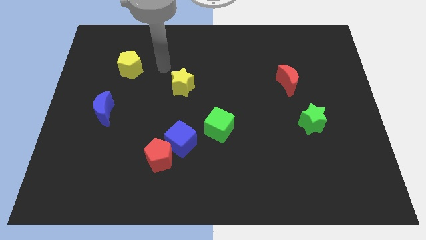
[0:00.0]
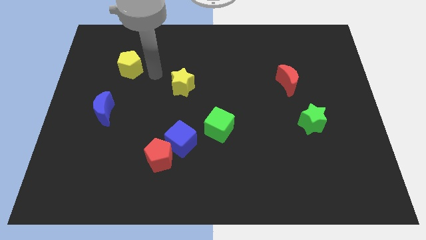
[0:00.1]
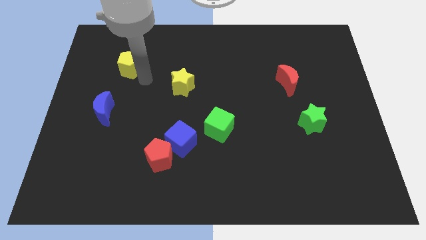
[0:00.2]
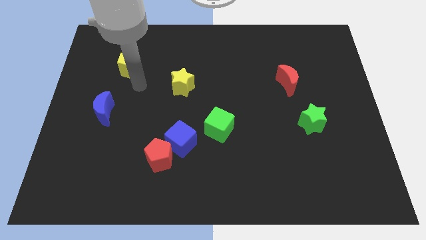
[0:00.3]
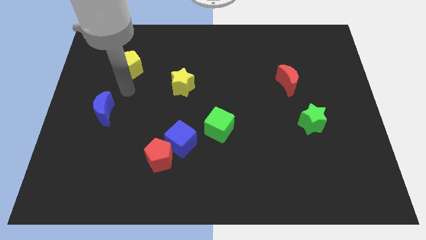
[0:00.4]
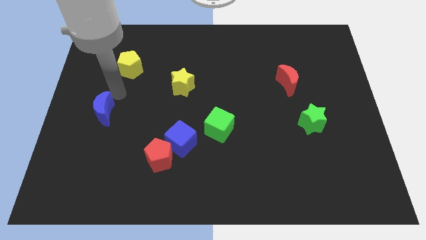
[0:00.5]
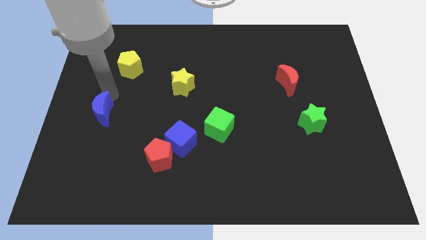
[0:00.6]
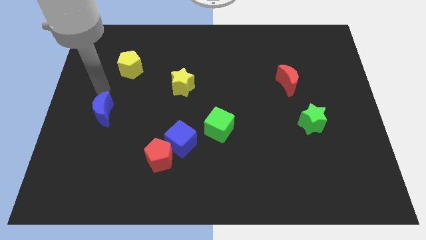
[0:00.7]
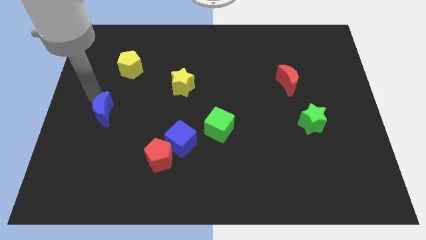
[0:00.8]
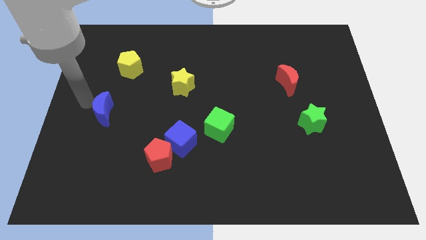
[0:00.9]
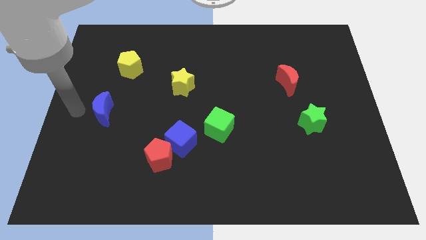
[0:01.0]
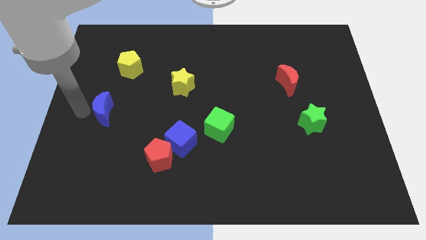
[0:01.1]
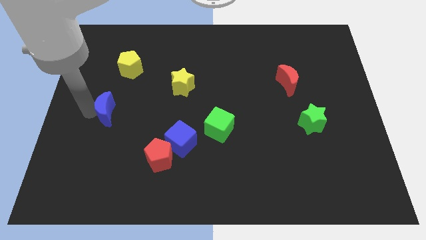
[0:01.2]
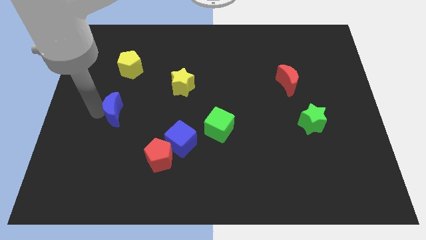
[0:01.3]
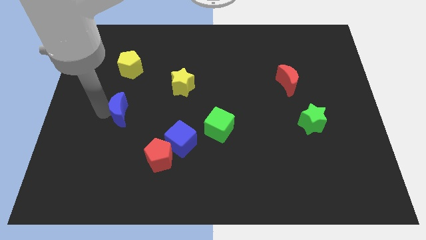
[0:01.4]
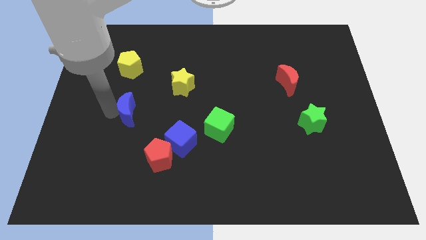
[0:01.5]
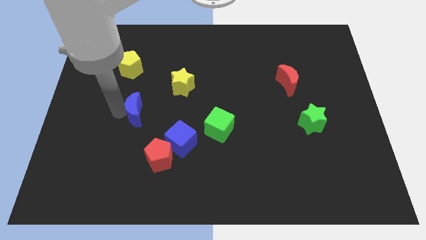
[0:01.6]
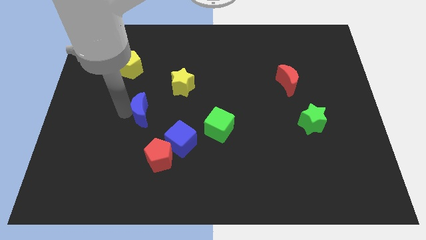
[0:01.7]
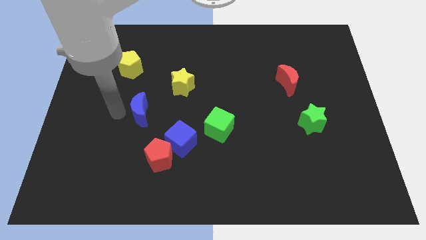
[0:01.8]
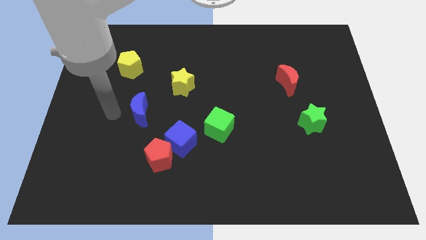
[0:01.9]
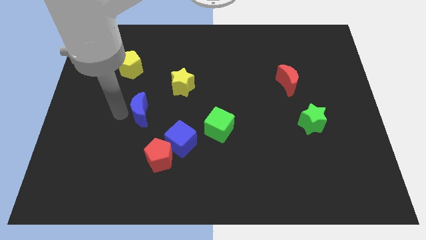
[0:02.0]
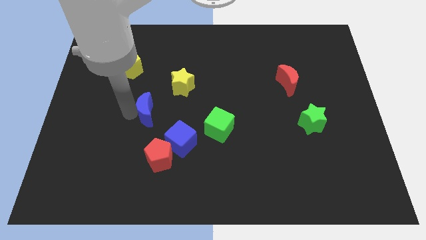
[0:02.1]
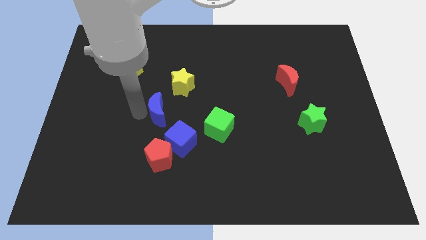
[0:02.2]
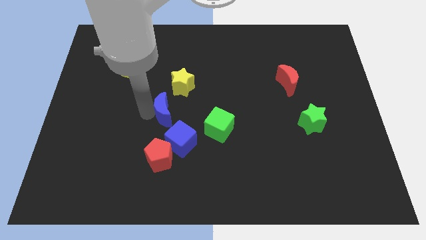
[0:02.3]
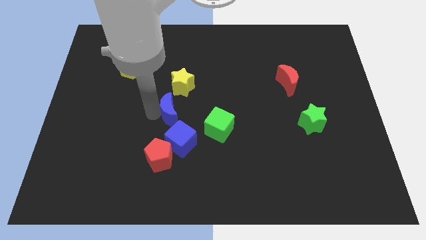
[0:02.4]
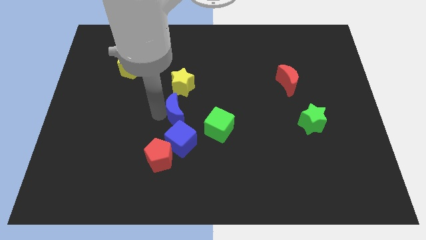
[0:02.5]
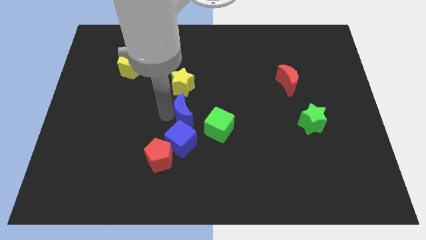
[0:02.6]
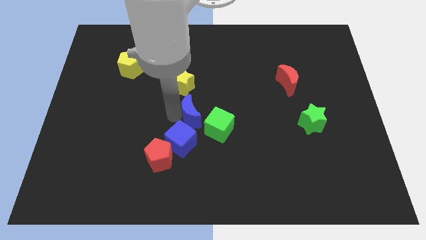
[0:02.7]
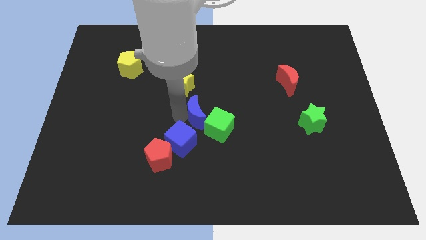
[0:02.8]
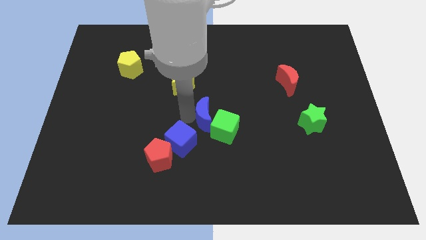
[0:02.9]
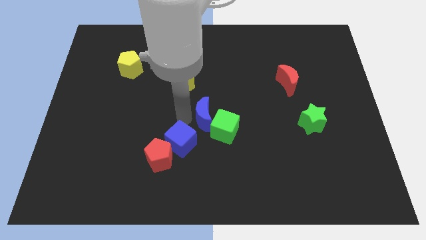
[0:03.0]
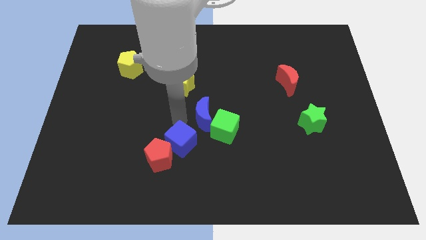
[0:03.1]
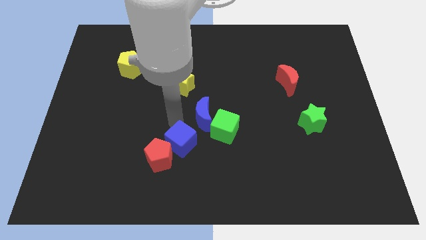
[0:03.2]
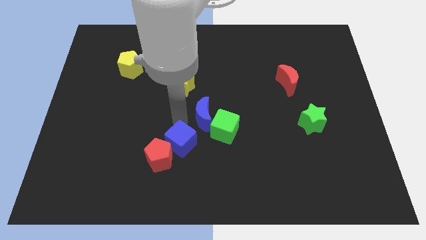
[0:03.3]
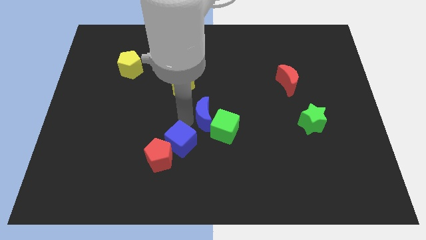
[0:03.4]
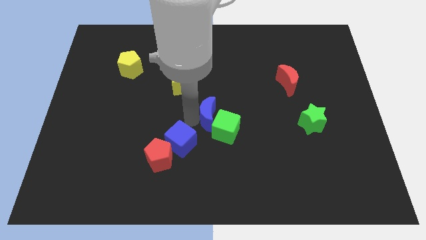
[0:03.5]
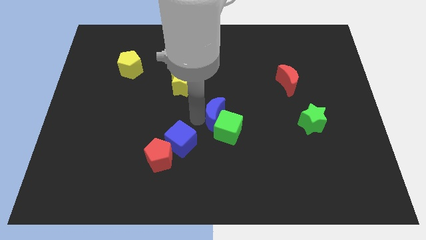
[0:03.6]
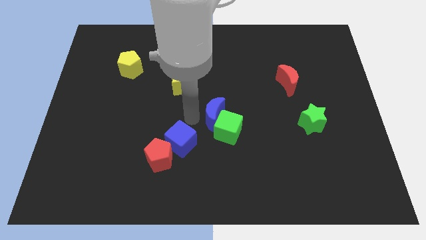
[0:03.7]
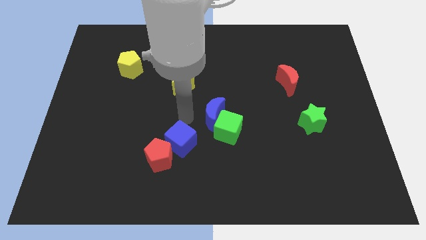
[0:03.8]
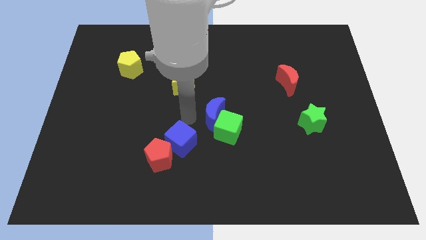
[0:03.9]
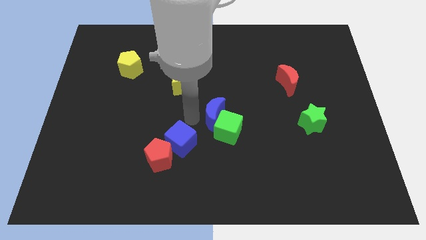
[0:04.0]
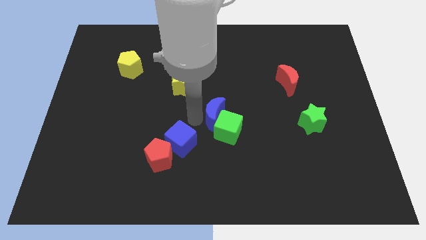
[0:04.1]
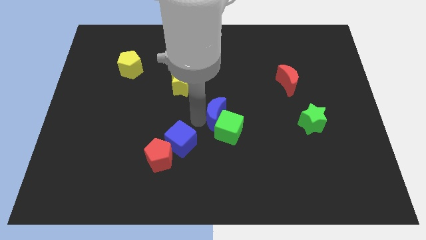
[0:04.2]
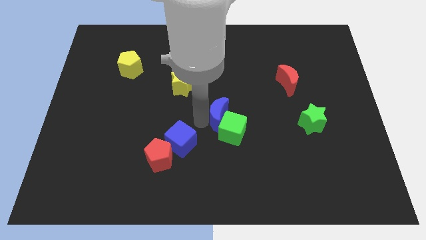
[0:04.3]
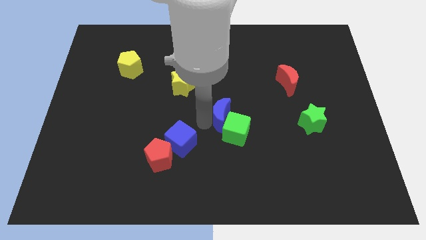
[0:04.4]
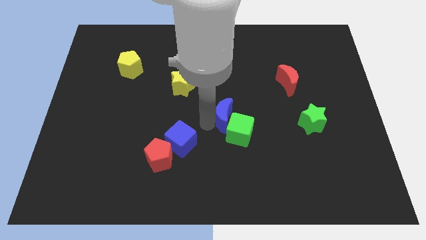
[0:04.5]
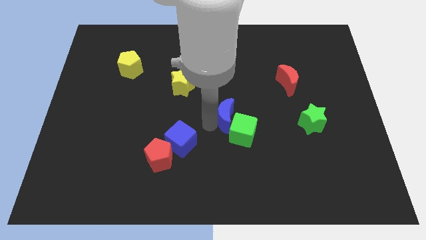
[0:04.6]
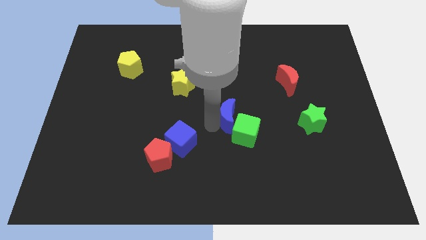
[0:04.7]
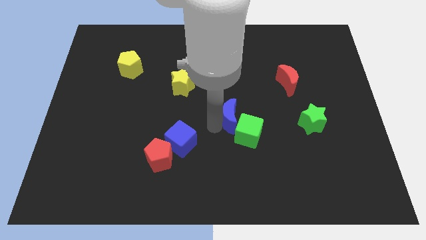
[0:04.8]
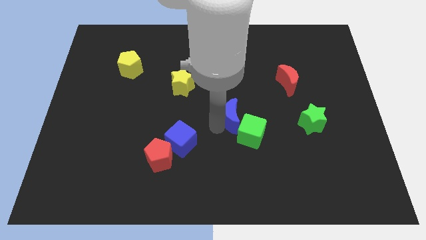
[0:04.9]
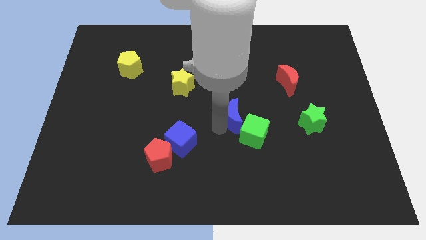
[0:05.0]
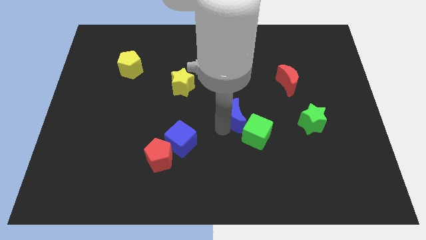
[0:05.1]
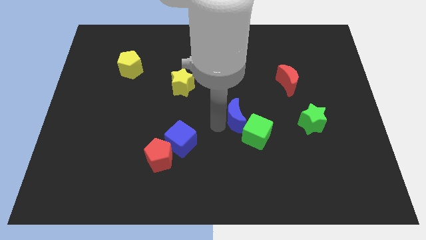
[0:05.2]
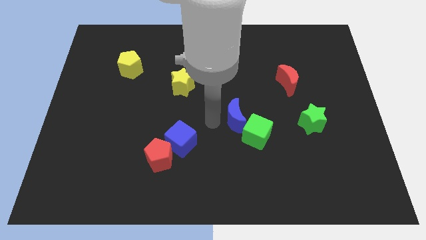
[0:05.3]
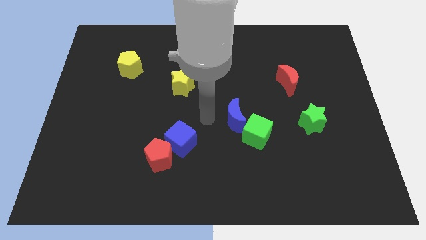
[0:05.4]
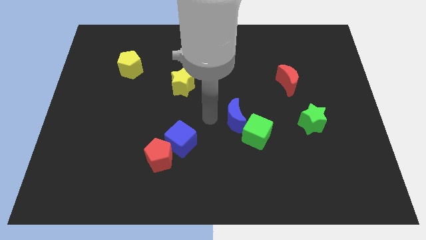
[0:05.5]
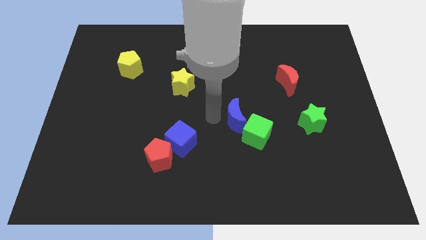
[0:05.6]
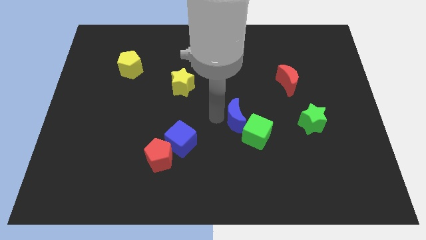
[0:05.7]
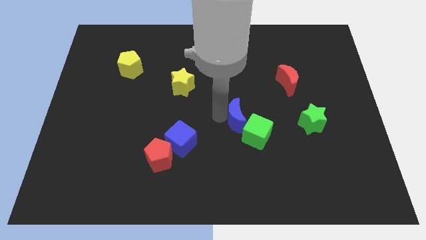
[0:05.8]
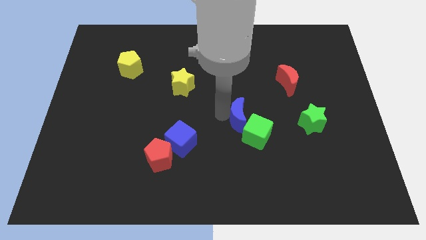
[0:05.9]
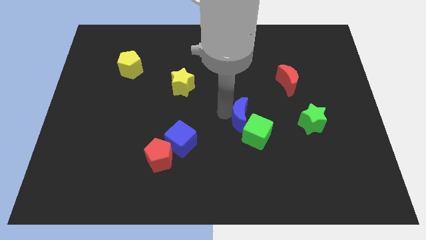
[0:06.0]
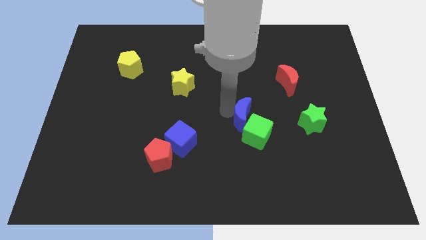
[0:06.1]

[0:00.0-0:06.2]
push the blue moon left of the green star

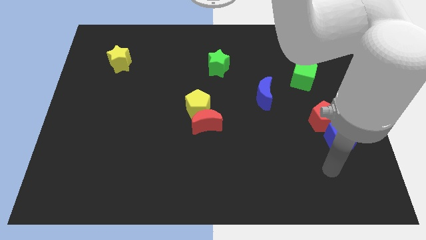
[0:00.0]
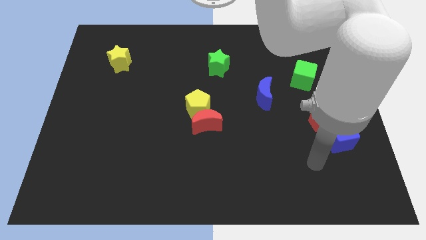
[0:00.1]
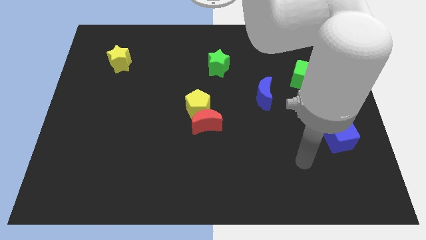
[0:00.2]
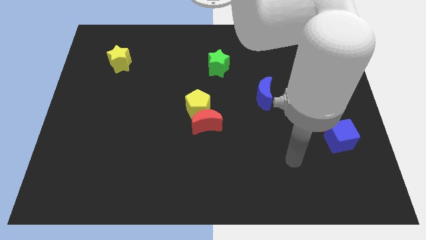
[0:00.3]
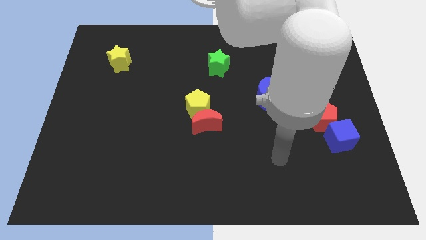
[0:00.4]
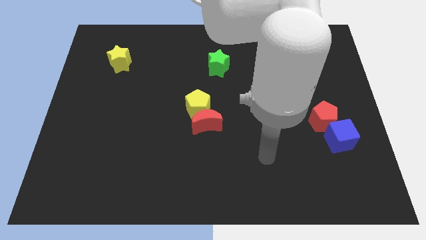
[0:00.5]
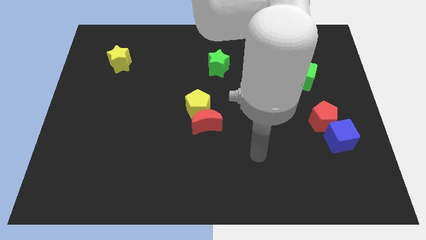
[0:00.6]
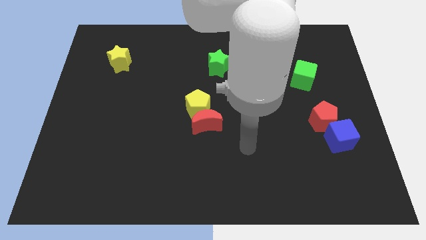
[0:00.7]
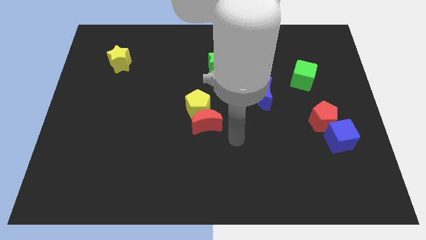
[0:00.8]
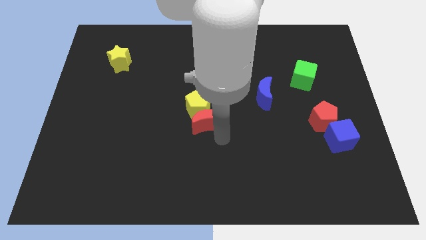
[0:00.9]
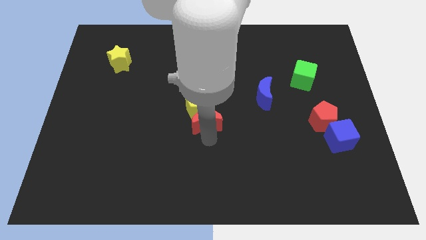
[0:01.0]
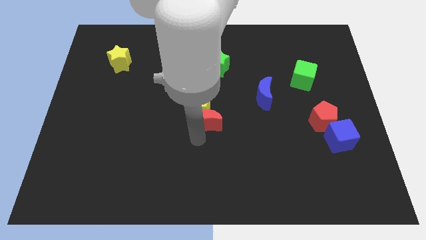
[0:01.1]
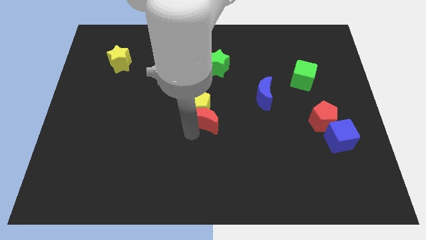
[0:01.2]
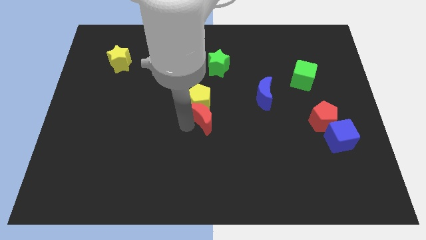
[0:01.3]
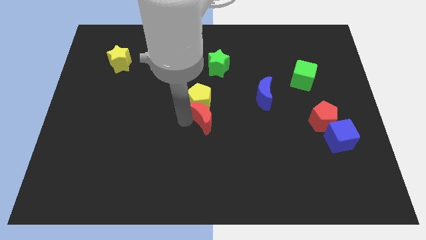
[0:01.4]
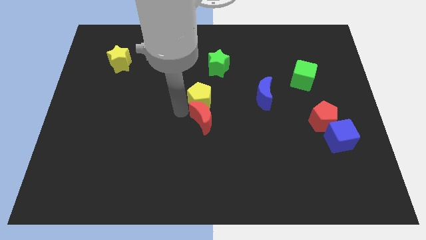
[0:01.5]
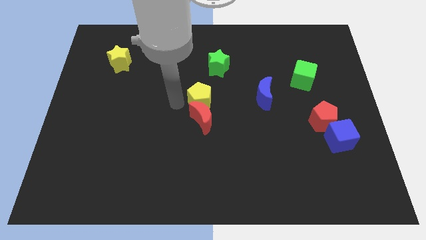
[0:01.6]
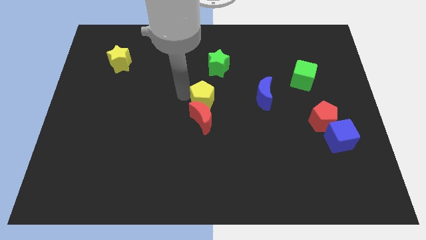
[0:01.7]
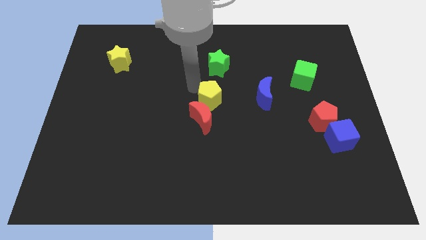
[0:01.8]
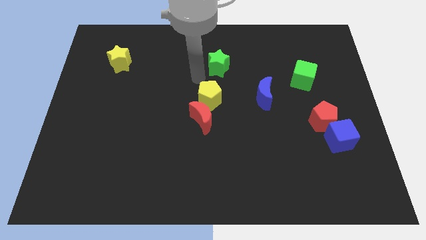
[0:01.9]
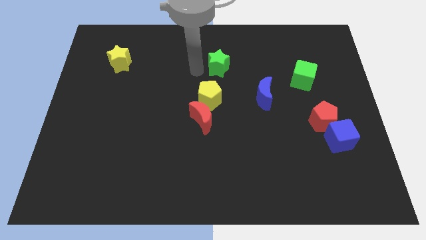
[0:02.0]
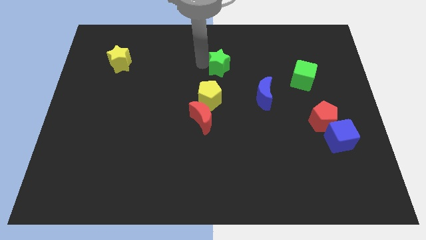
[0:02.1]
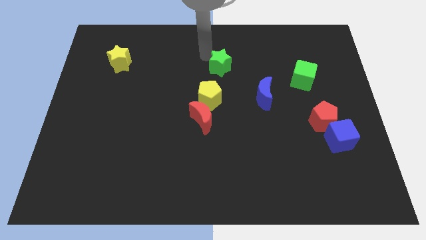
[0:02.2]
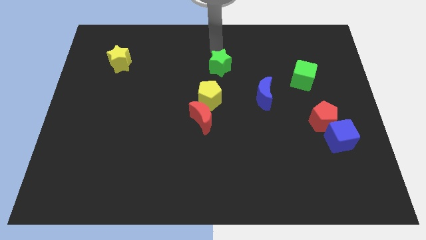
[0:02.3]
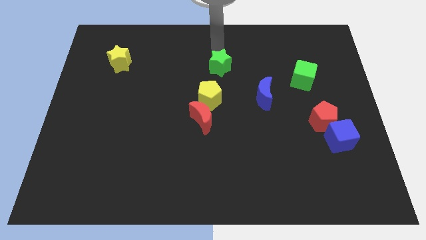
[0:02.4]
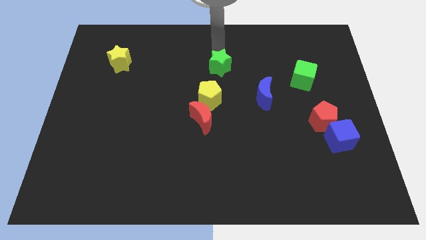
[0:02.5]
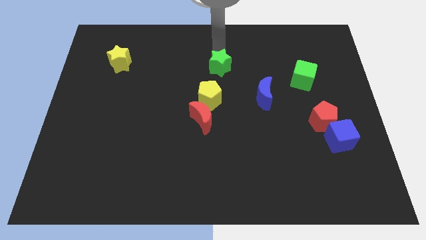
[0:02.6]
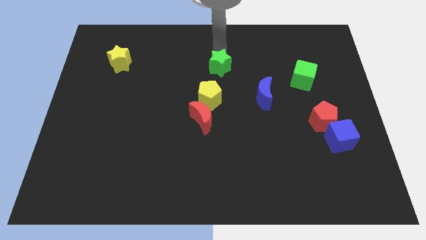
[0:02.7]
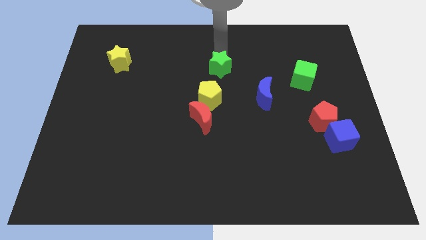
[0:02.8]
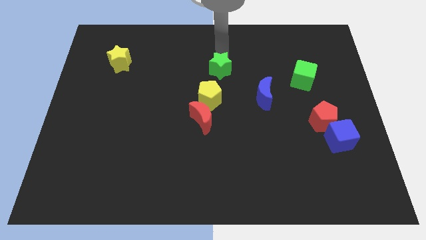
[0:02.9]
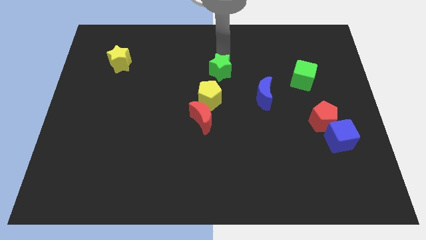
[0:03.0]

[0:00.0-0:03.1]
push the green star to the top right of the yellow pentagon
